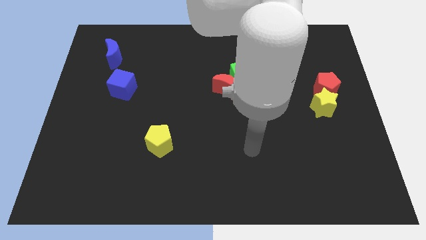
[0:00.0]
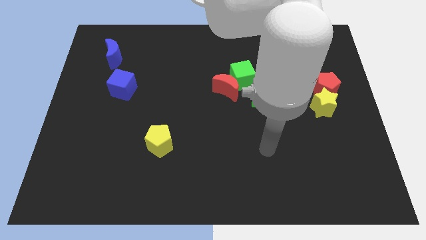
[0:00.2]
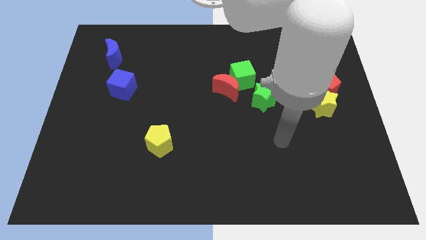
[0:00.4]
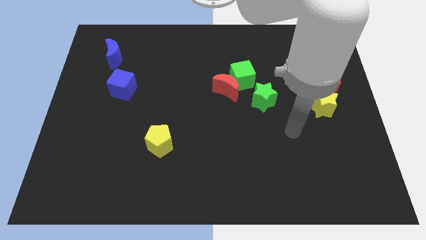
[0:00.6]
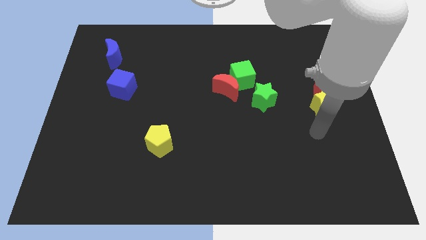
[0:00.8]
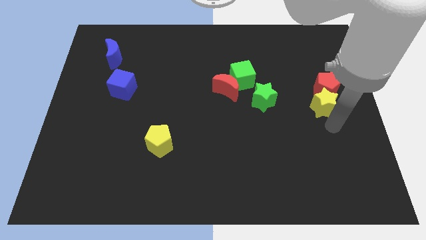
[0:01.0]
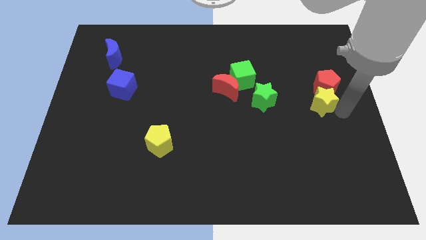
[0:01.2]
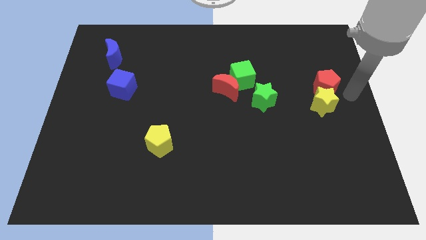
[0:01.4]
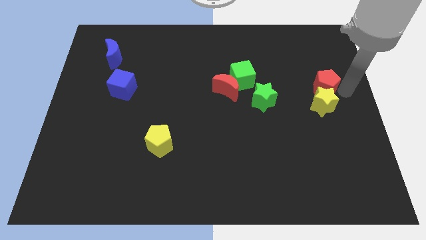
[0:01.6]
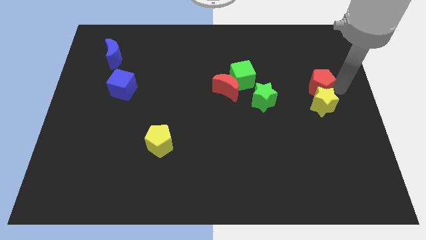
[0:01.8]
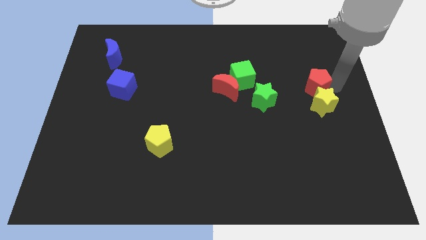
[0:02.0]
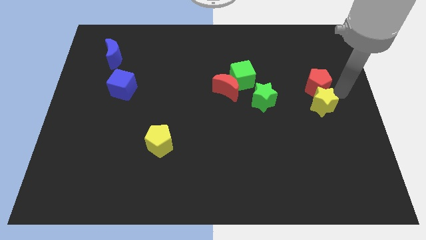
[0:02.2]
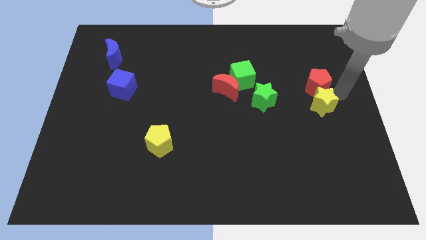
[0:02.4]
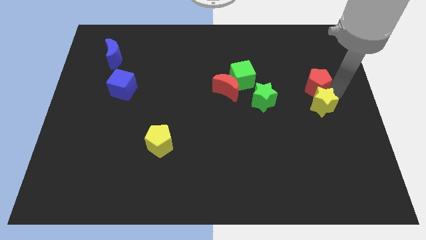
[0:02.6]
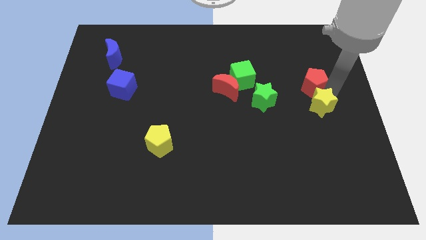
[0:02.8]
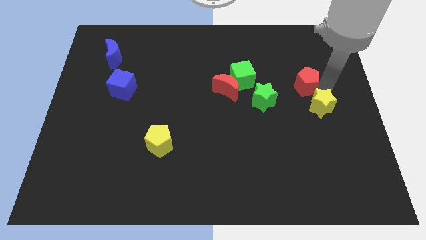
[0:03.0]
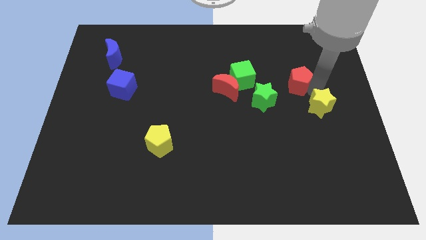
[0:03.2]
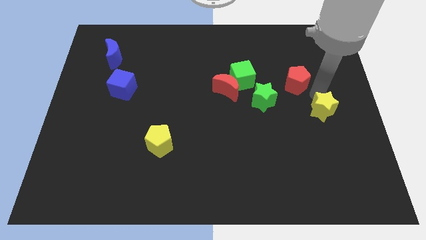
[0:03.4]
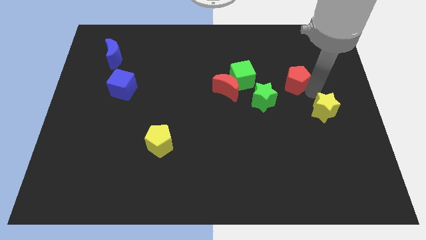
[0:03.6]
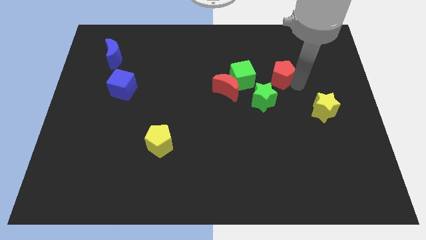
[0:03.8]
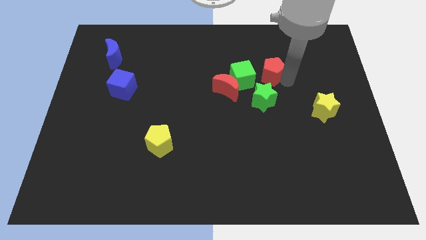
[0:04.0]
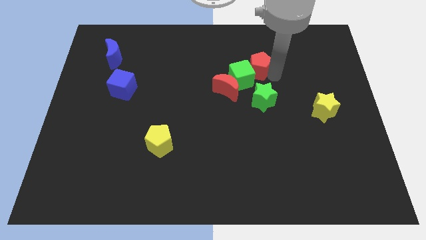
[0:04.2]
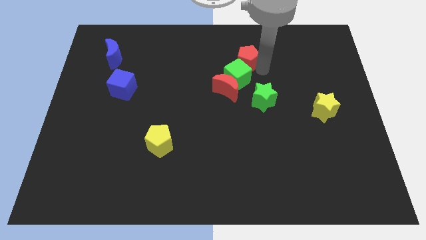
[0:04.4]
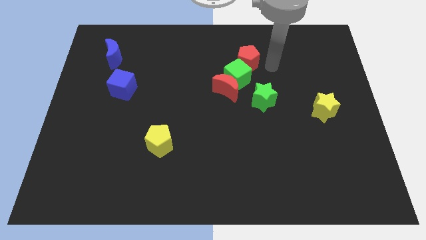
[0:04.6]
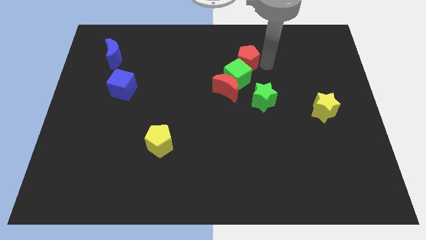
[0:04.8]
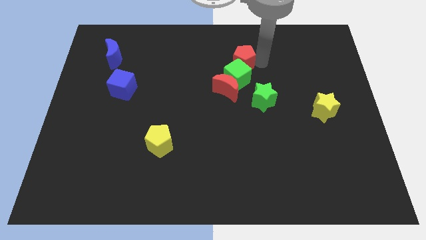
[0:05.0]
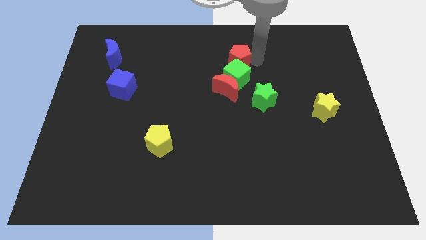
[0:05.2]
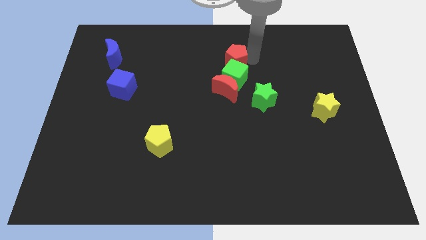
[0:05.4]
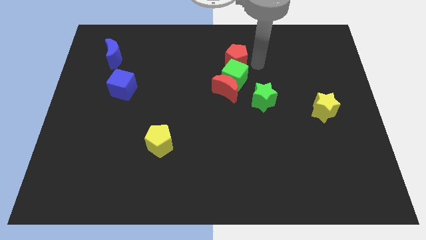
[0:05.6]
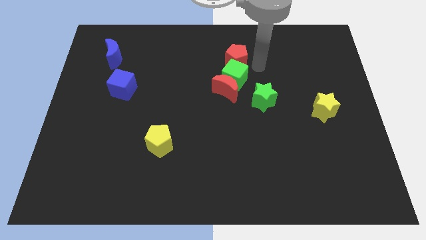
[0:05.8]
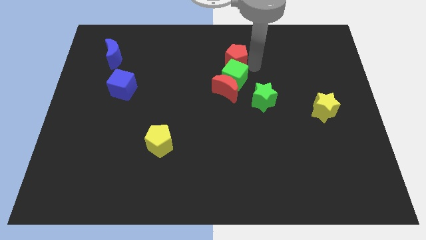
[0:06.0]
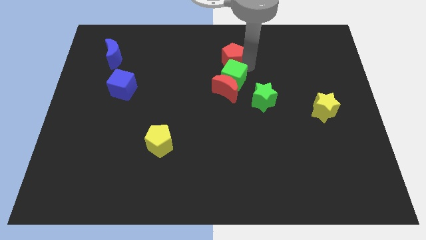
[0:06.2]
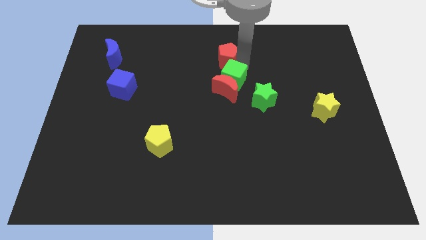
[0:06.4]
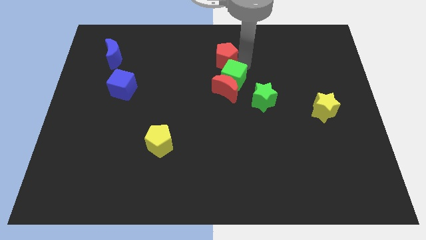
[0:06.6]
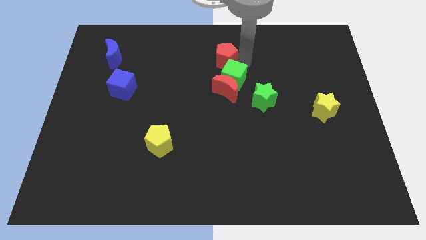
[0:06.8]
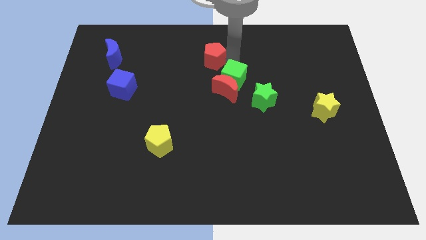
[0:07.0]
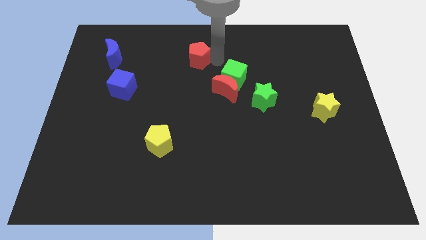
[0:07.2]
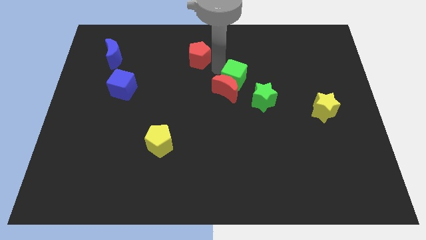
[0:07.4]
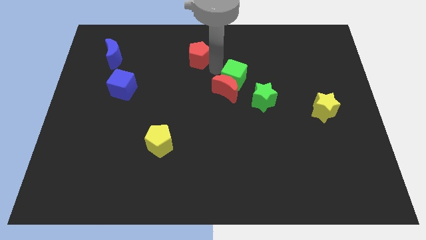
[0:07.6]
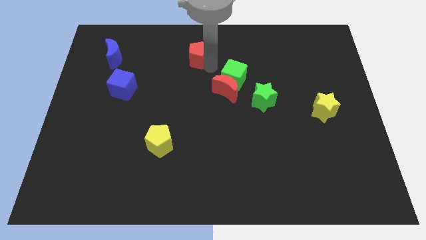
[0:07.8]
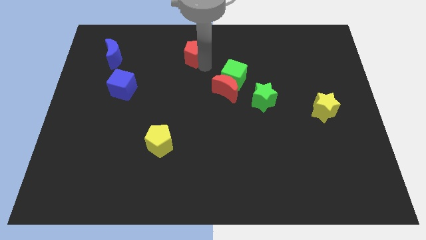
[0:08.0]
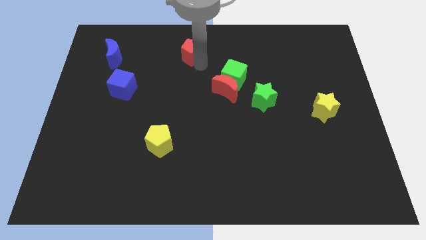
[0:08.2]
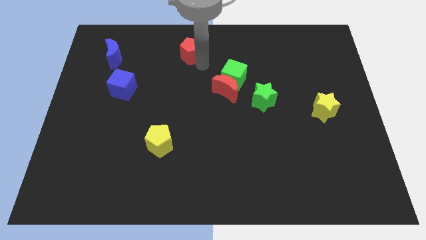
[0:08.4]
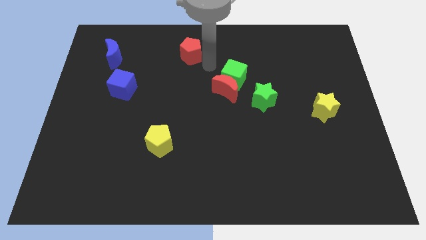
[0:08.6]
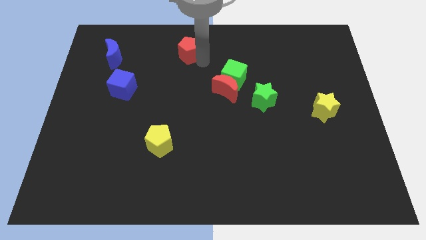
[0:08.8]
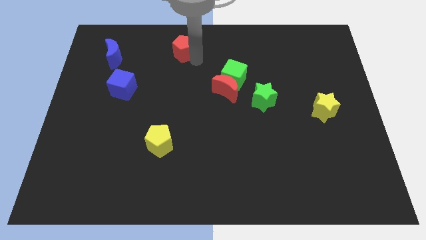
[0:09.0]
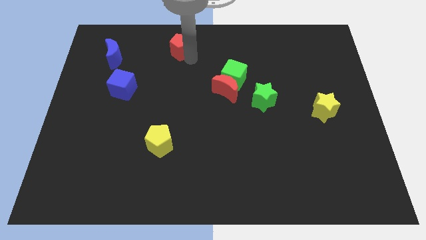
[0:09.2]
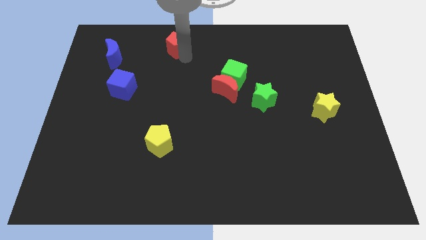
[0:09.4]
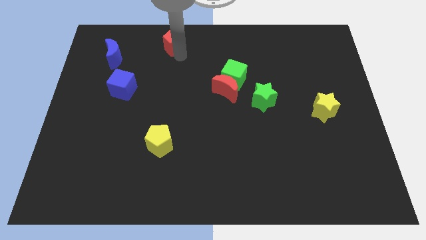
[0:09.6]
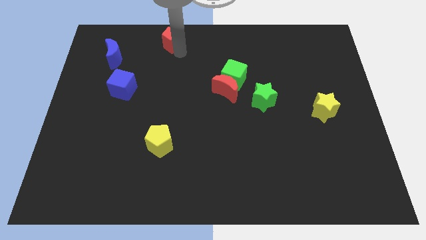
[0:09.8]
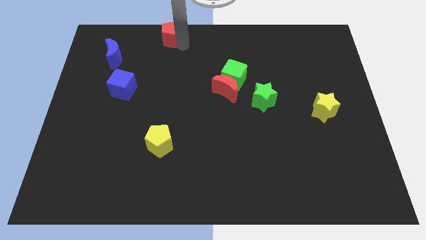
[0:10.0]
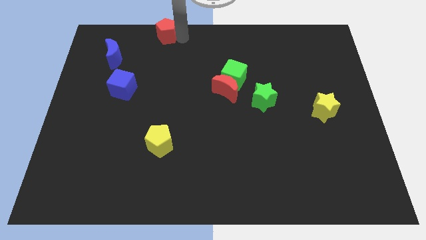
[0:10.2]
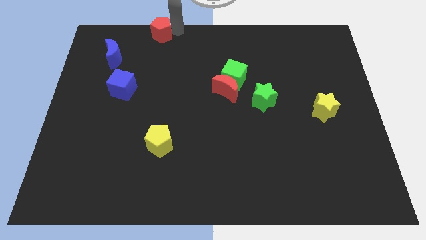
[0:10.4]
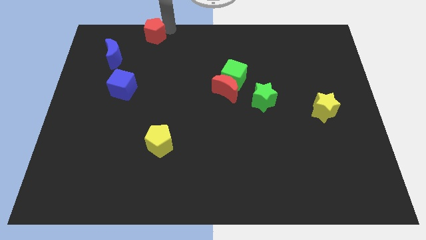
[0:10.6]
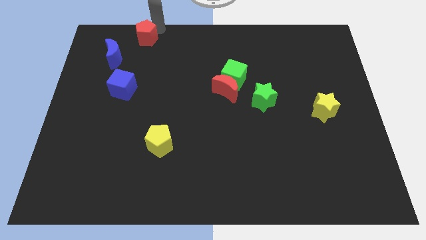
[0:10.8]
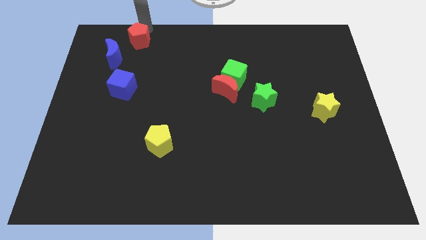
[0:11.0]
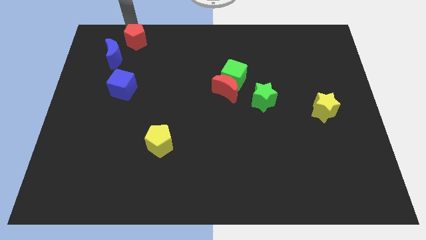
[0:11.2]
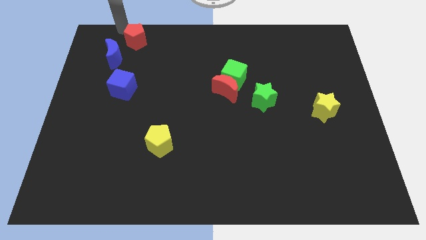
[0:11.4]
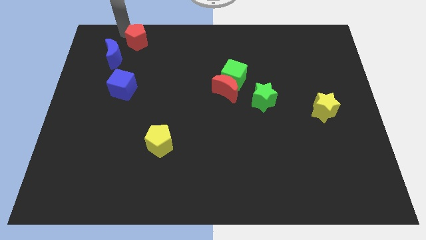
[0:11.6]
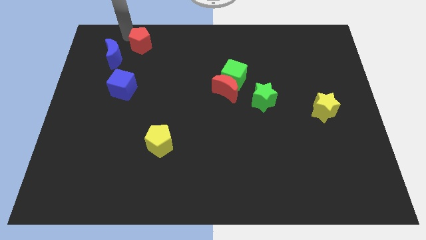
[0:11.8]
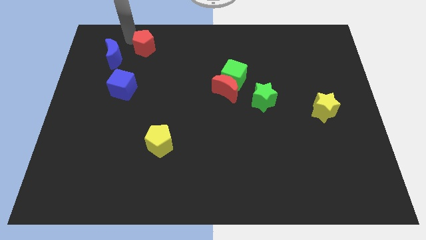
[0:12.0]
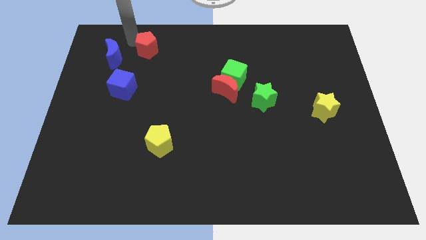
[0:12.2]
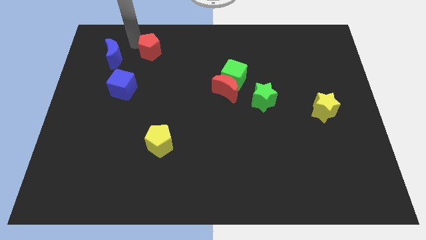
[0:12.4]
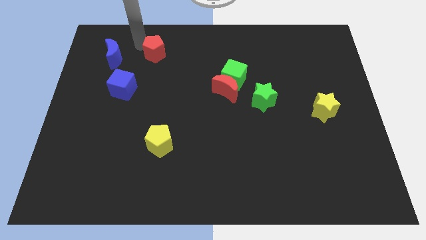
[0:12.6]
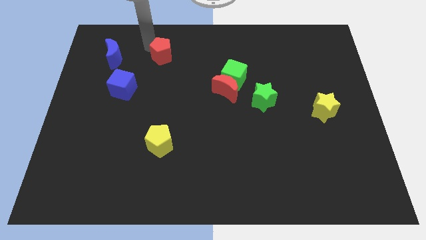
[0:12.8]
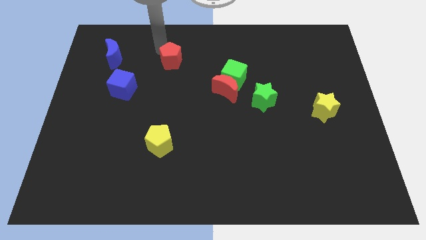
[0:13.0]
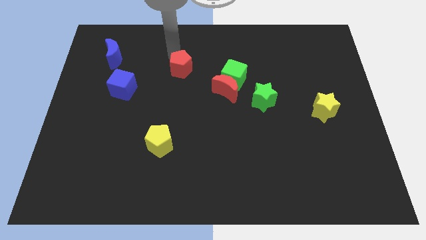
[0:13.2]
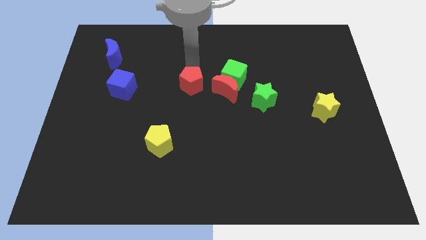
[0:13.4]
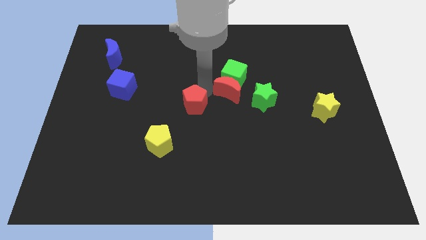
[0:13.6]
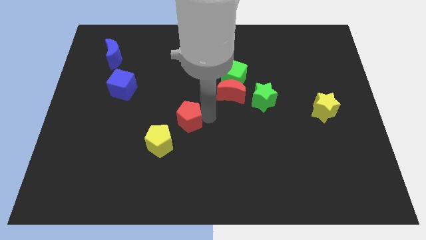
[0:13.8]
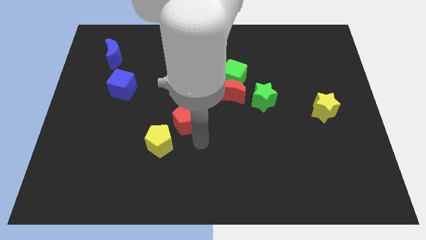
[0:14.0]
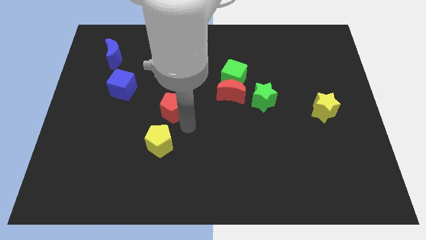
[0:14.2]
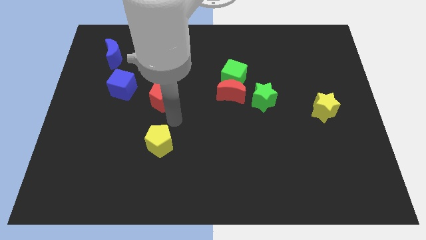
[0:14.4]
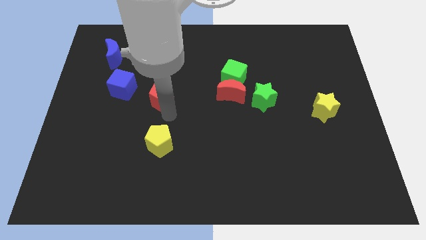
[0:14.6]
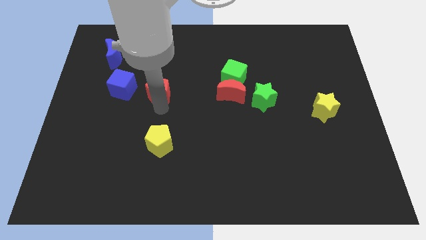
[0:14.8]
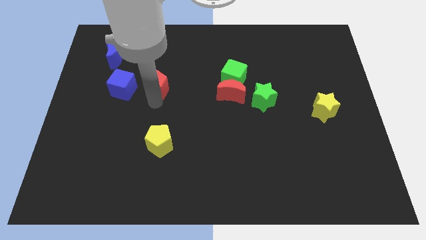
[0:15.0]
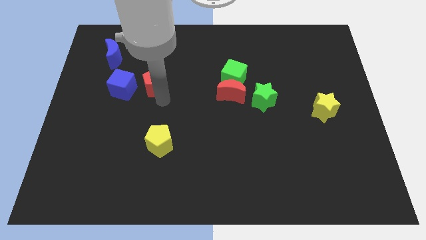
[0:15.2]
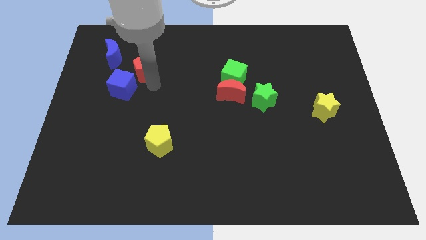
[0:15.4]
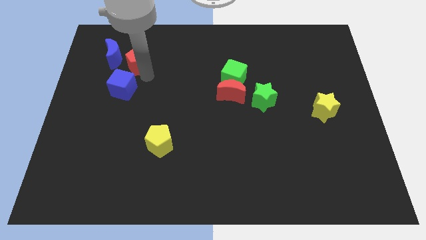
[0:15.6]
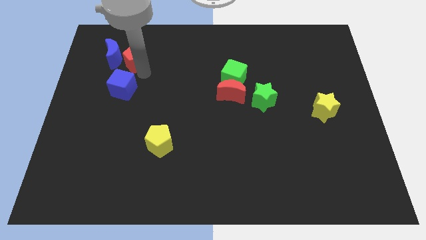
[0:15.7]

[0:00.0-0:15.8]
push the red pentagon towards the blue moon
